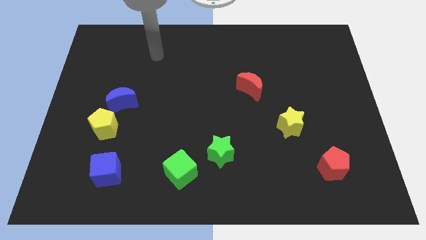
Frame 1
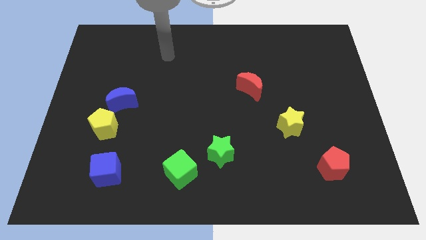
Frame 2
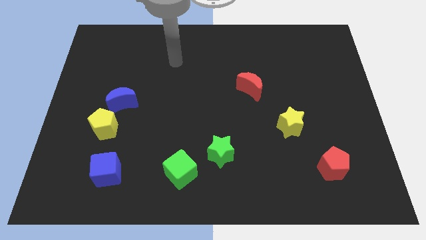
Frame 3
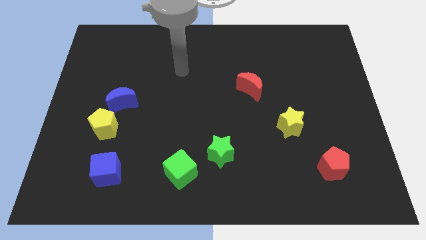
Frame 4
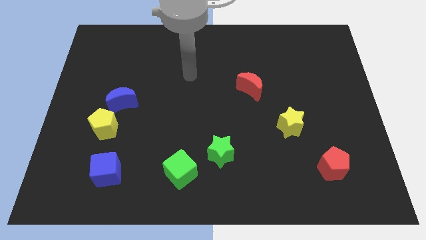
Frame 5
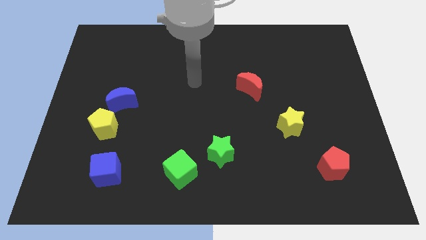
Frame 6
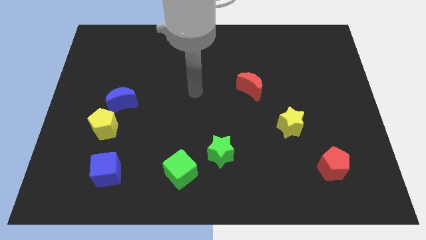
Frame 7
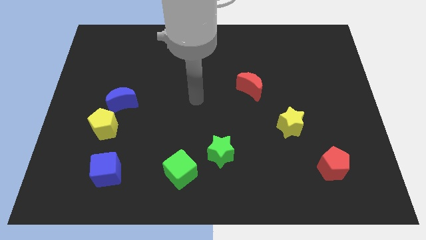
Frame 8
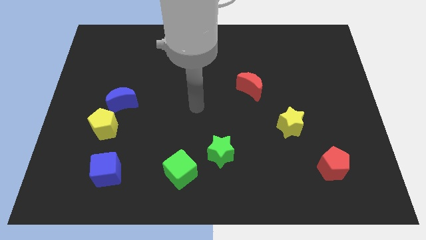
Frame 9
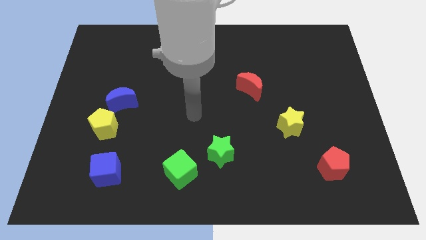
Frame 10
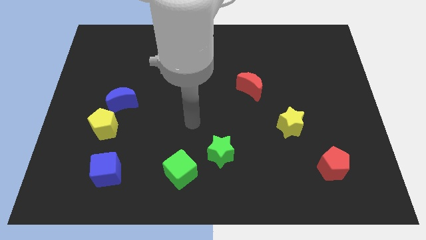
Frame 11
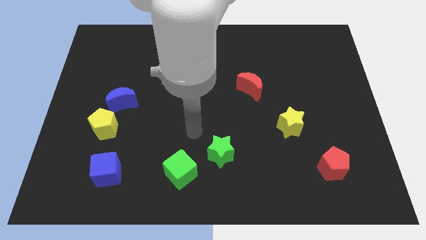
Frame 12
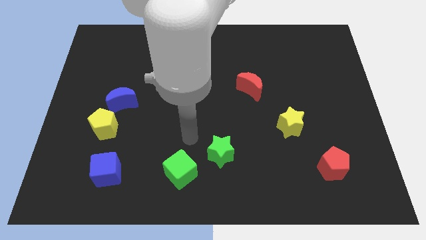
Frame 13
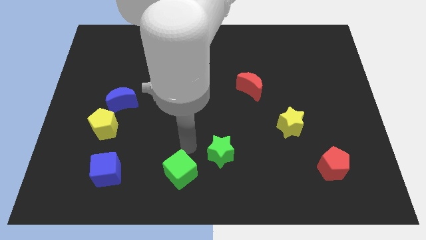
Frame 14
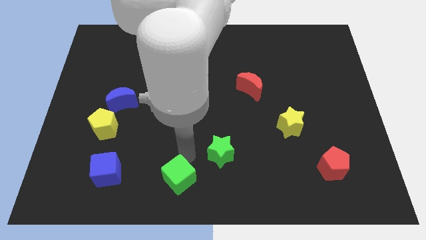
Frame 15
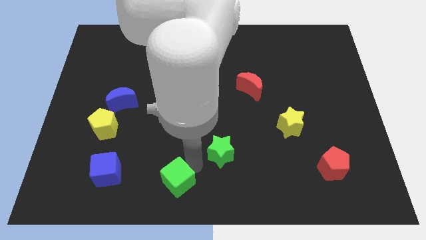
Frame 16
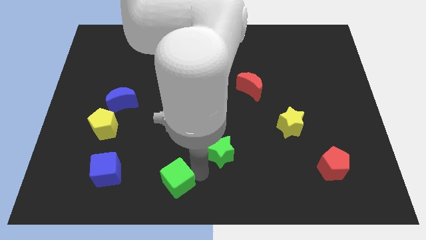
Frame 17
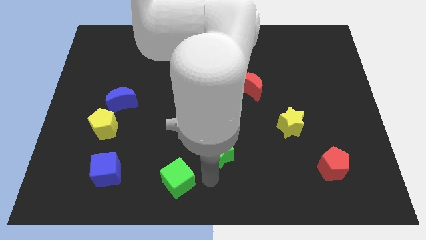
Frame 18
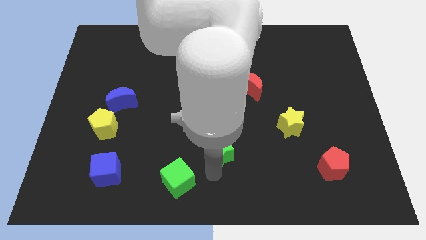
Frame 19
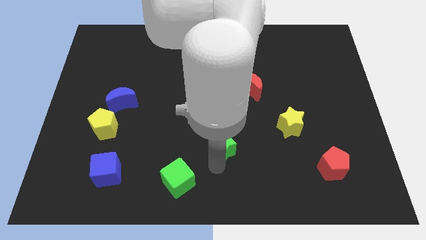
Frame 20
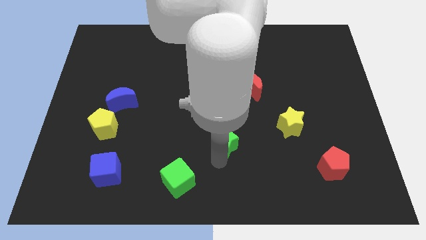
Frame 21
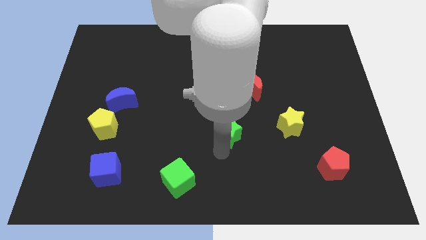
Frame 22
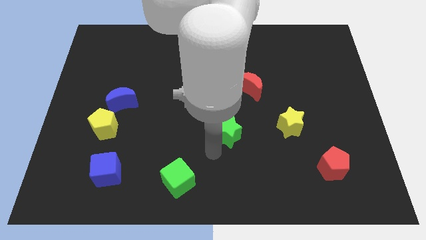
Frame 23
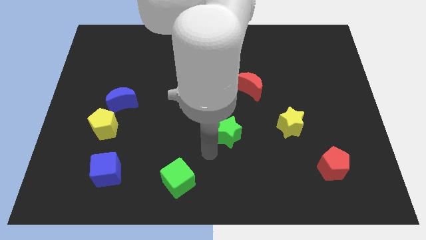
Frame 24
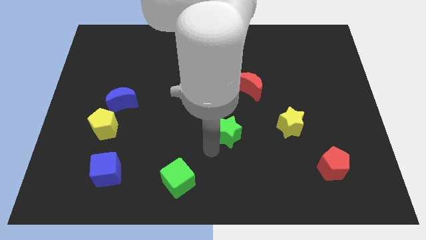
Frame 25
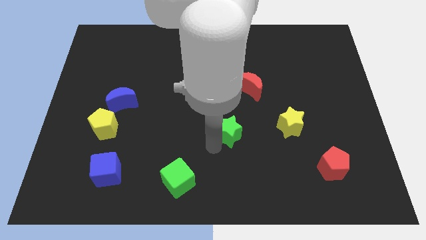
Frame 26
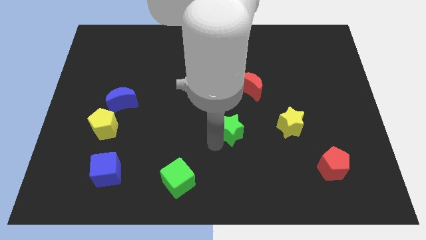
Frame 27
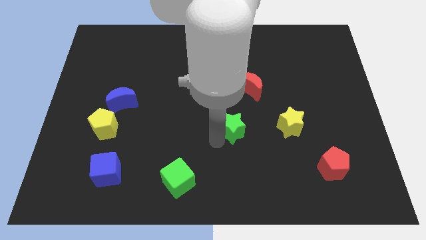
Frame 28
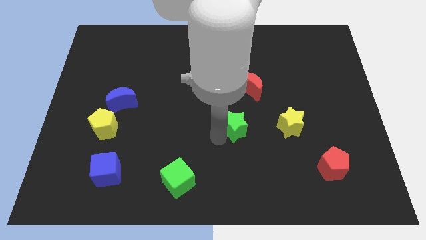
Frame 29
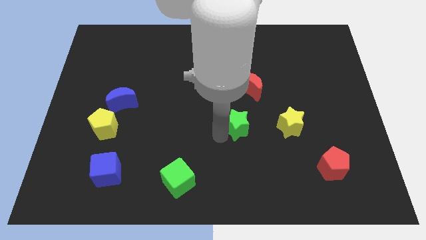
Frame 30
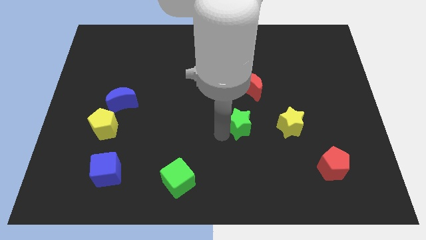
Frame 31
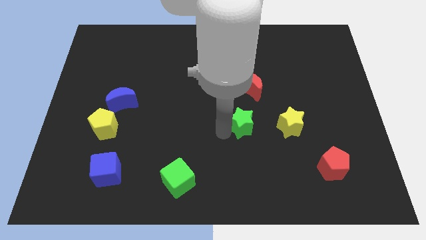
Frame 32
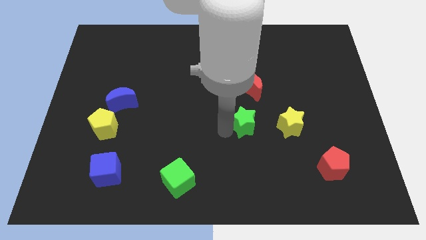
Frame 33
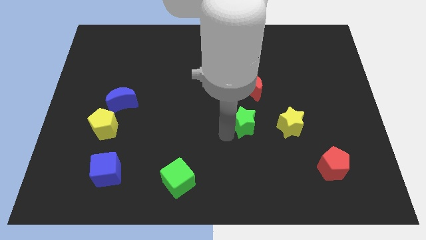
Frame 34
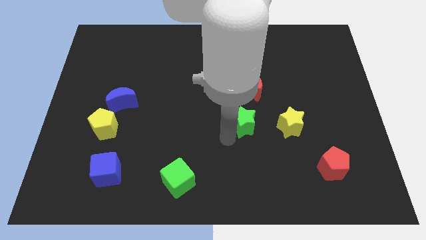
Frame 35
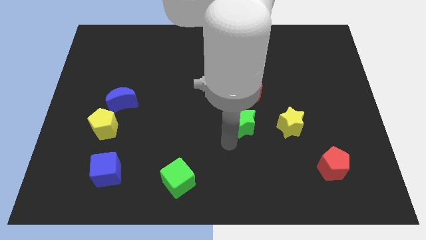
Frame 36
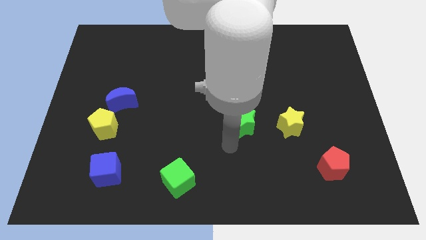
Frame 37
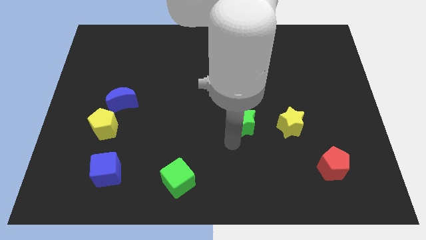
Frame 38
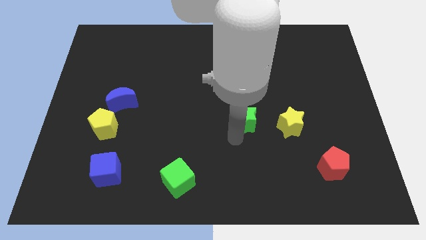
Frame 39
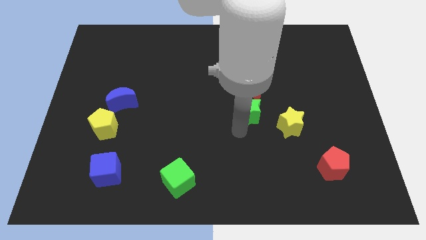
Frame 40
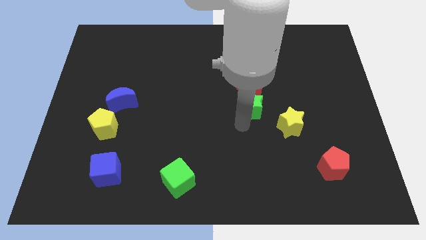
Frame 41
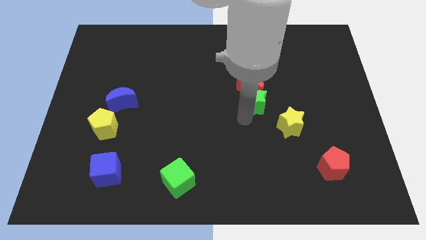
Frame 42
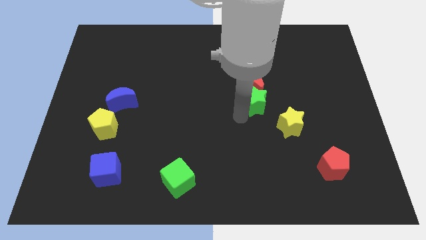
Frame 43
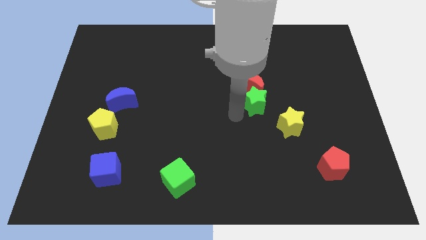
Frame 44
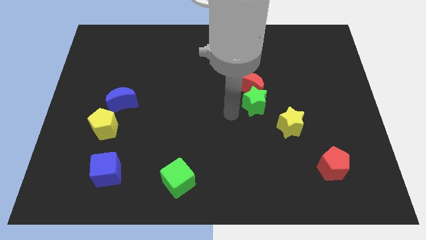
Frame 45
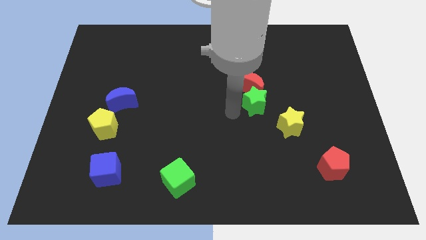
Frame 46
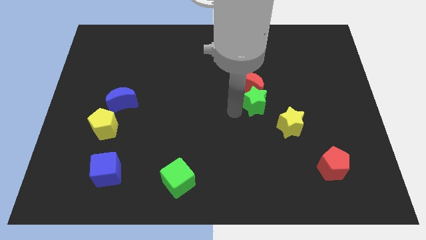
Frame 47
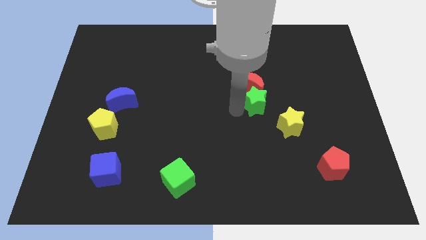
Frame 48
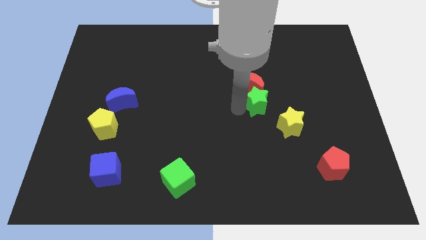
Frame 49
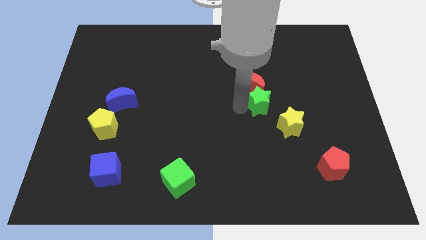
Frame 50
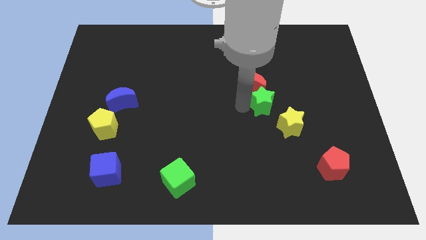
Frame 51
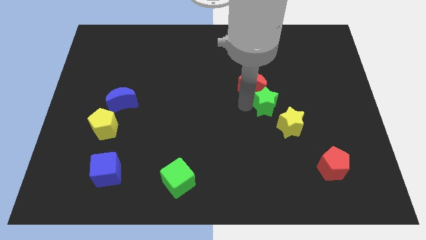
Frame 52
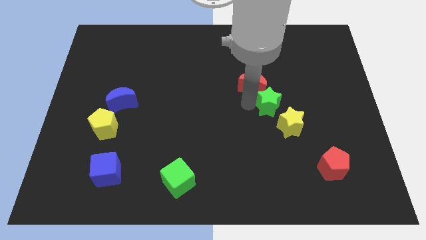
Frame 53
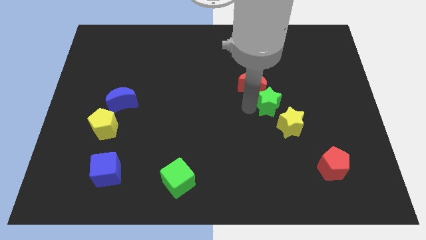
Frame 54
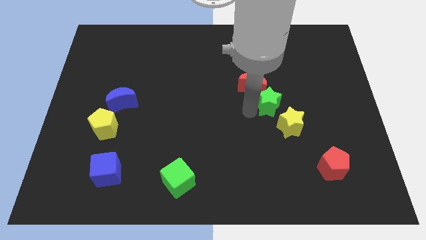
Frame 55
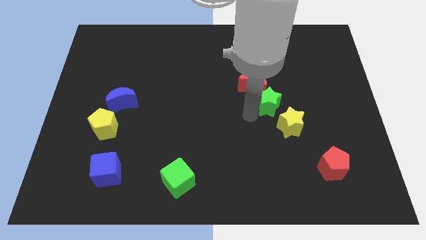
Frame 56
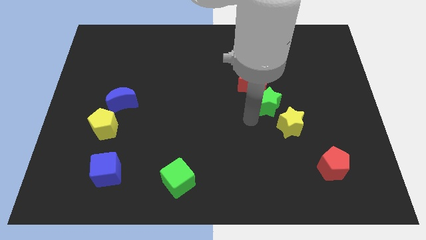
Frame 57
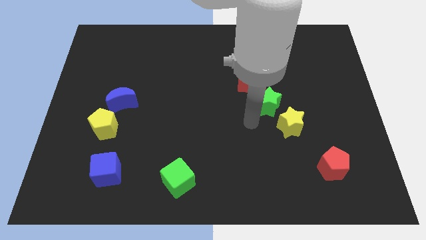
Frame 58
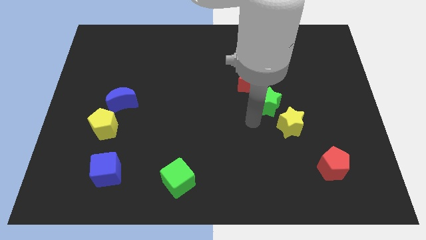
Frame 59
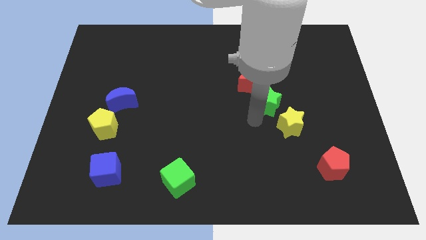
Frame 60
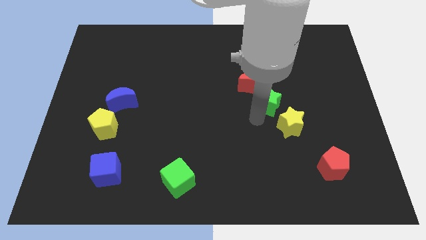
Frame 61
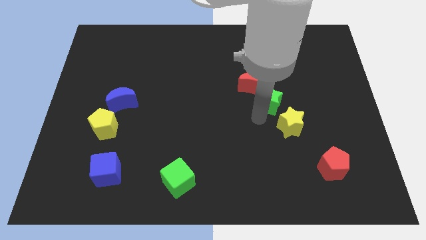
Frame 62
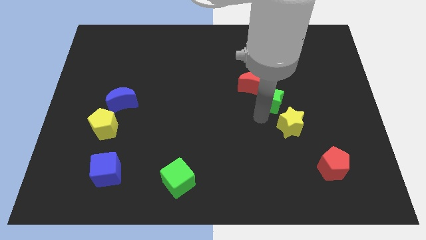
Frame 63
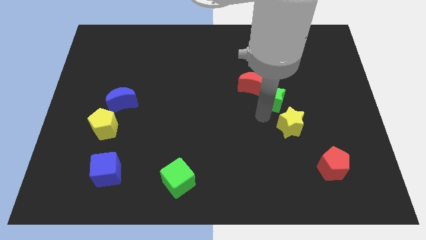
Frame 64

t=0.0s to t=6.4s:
push the green star to the right side of the red moon
